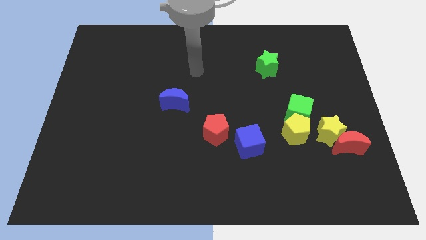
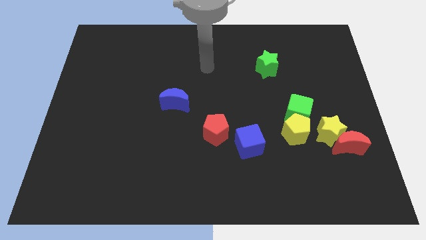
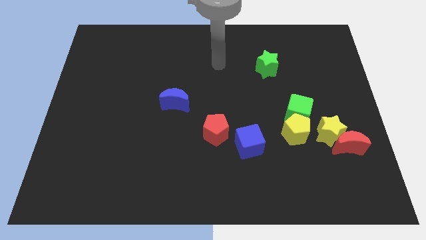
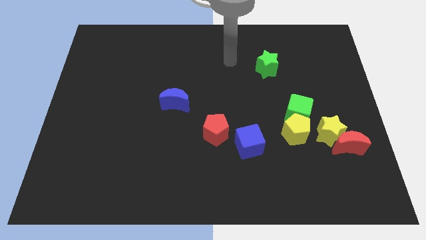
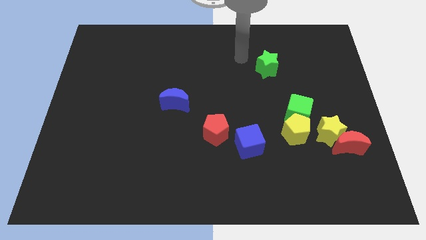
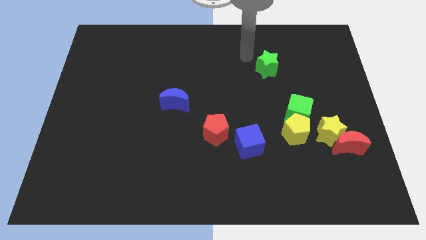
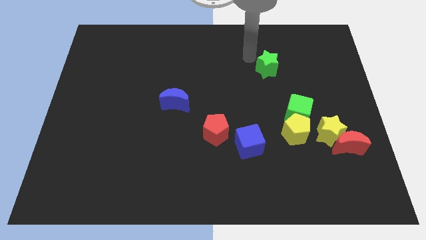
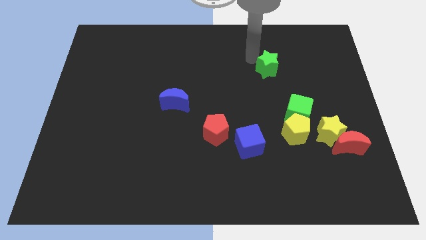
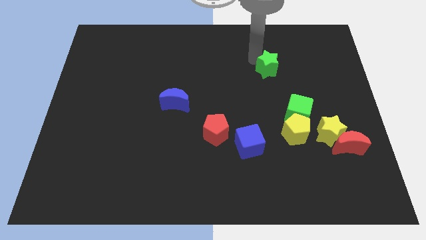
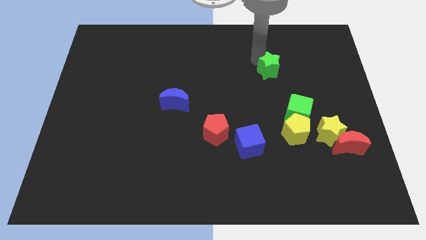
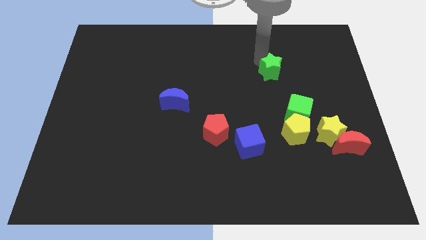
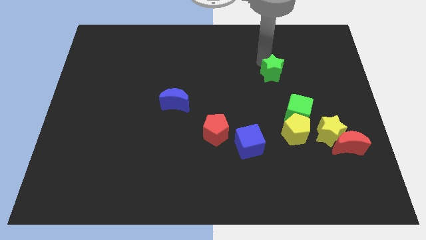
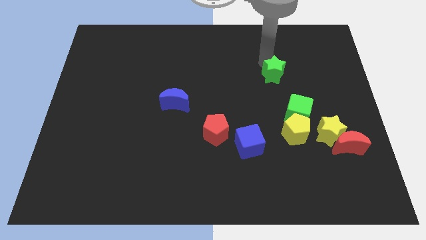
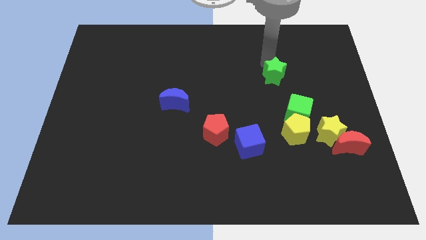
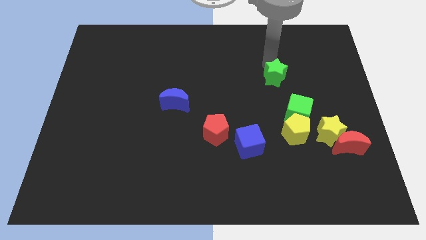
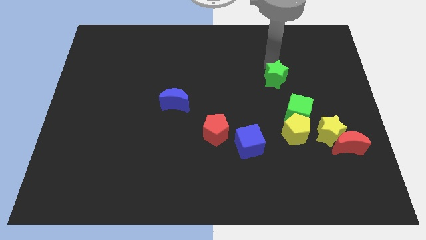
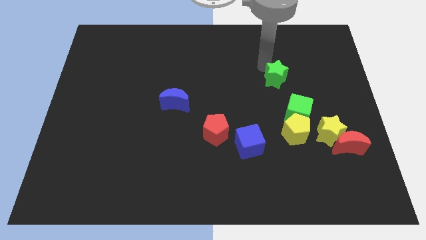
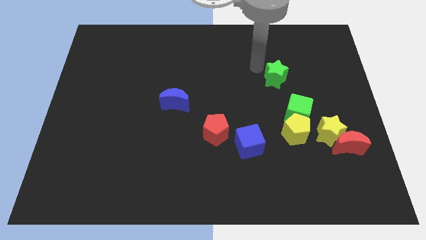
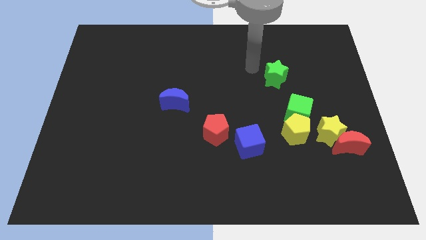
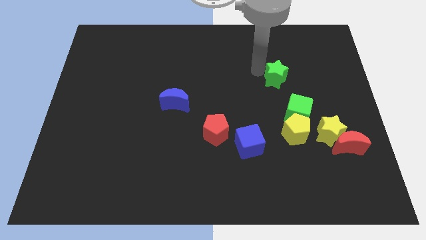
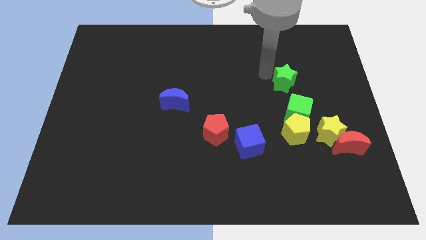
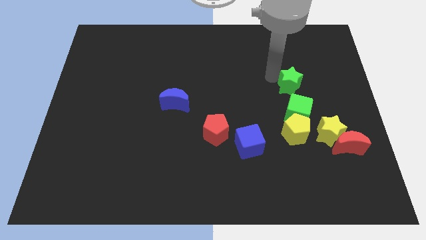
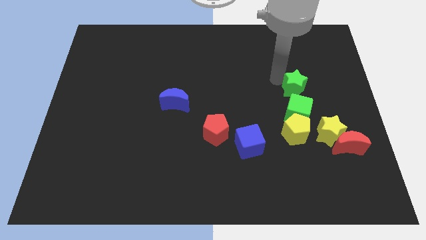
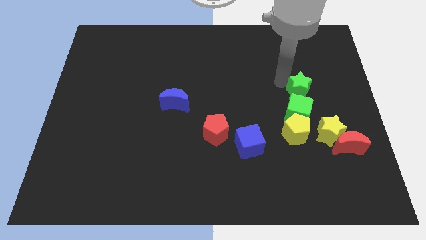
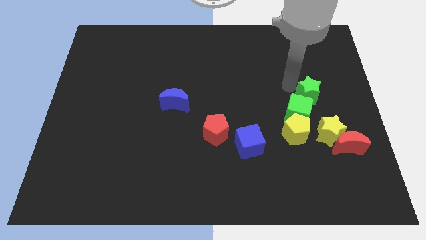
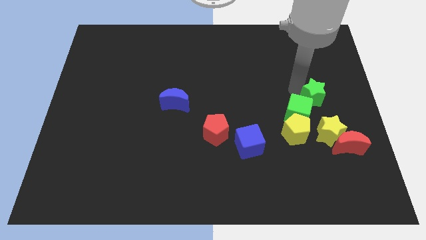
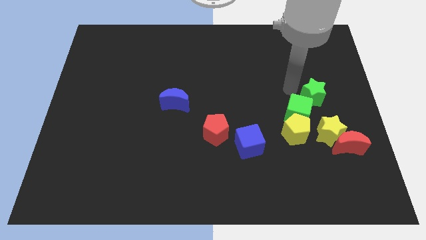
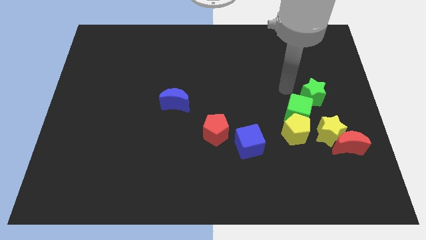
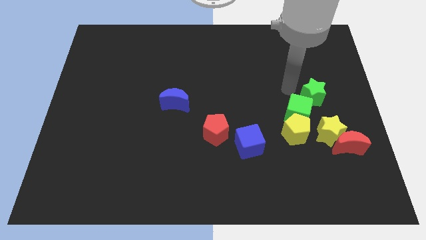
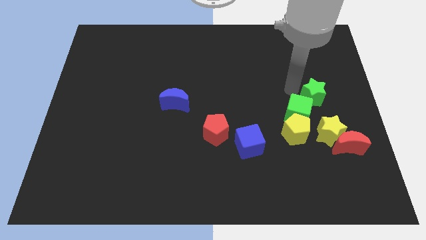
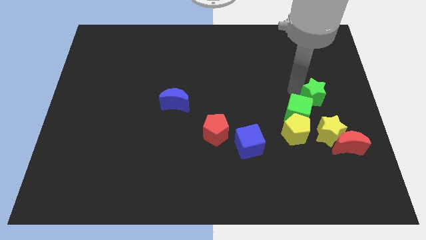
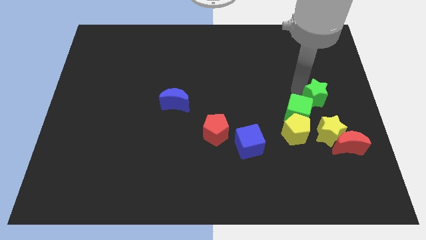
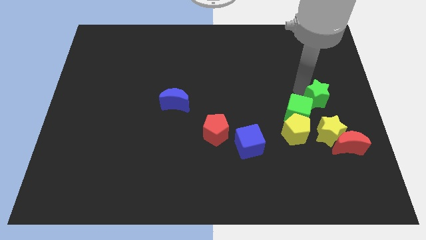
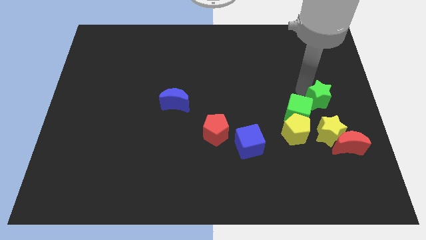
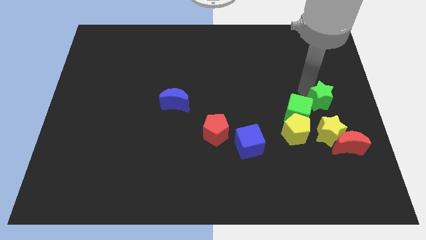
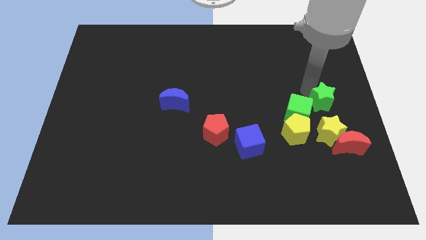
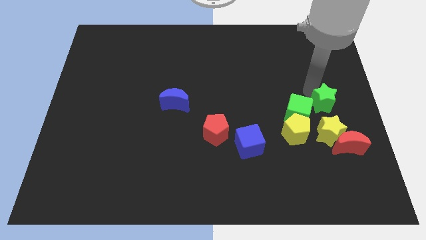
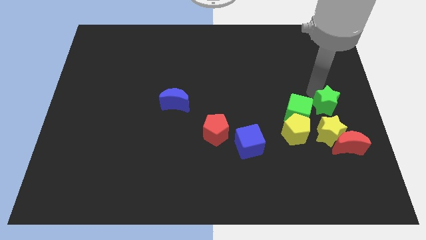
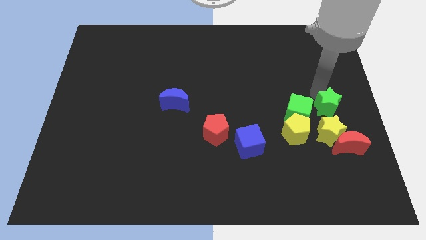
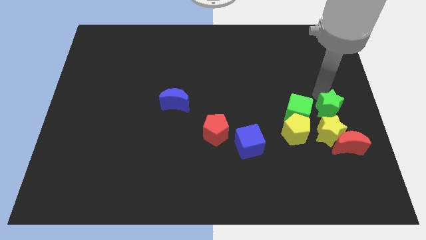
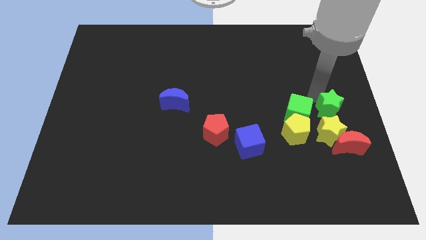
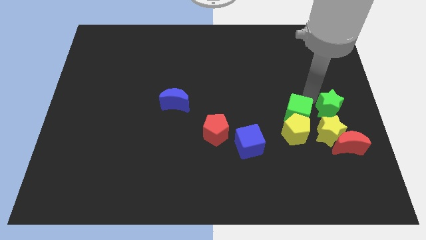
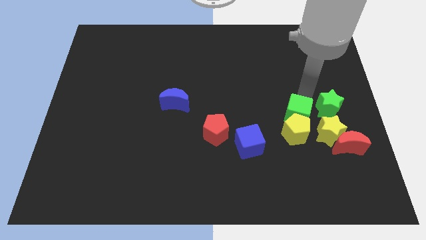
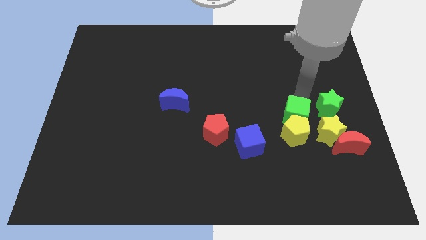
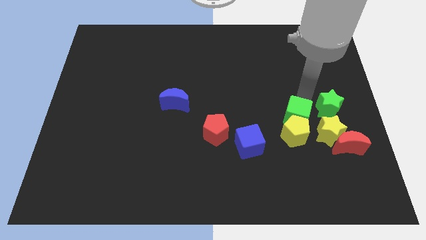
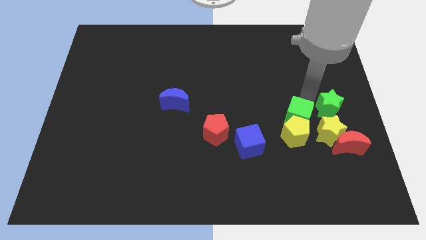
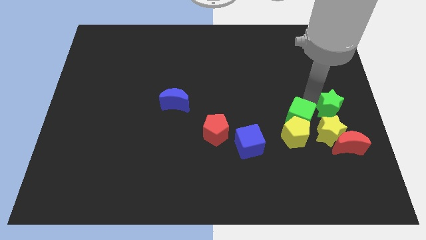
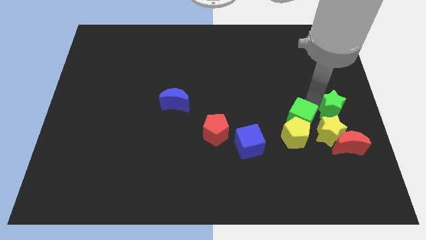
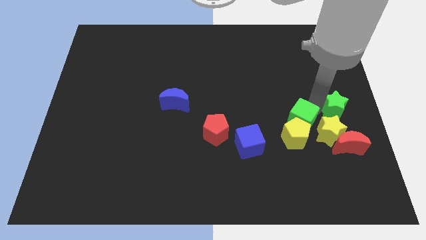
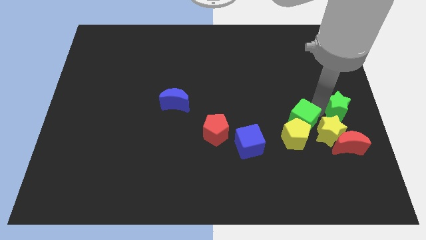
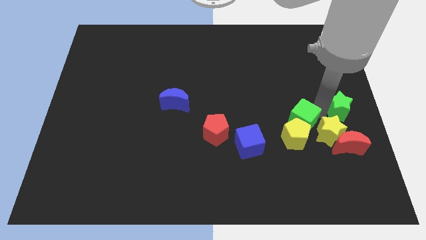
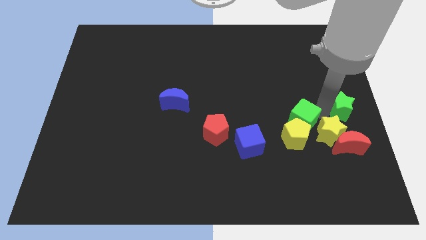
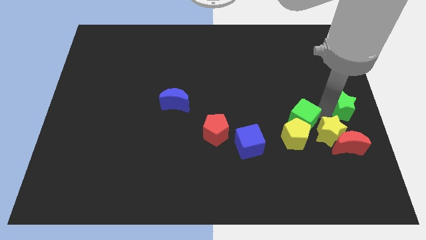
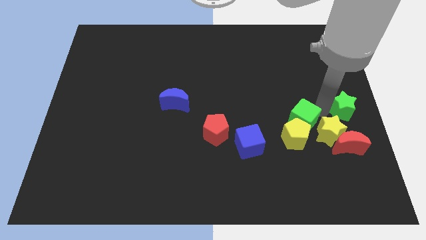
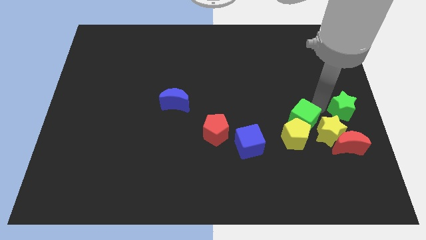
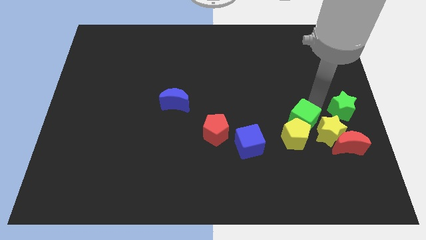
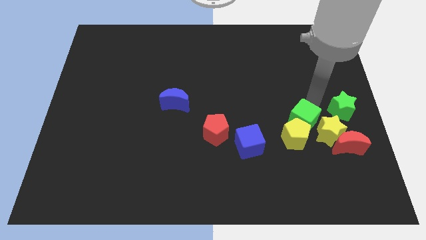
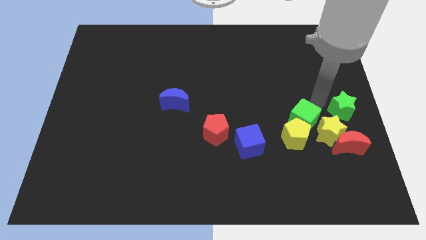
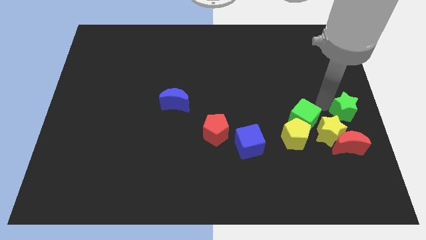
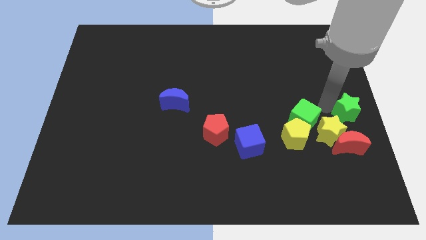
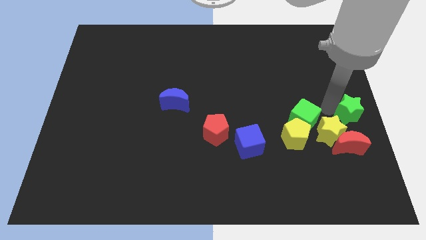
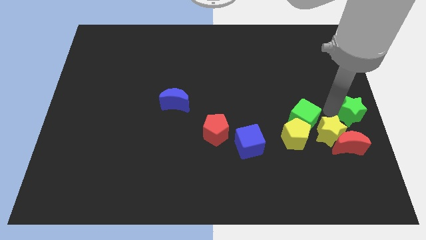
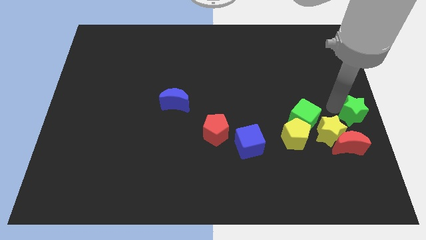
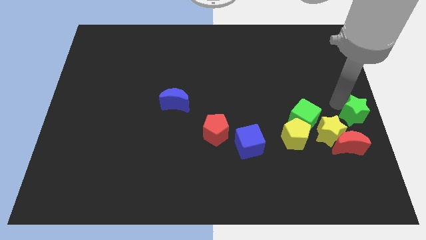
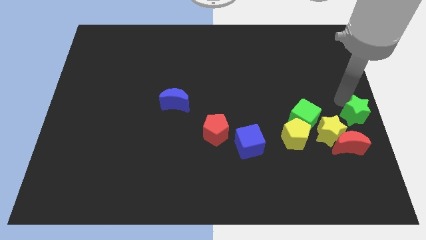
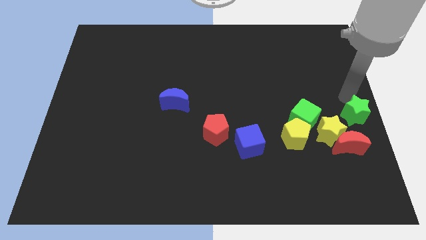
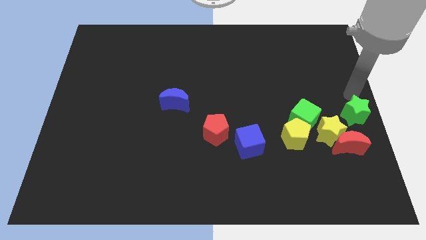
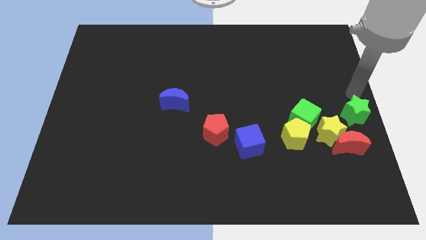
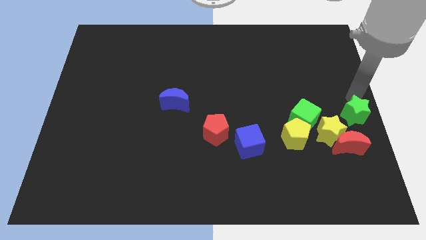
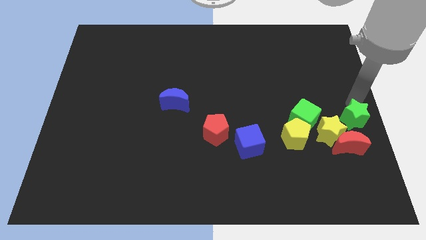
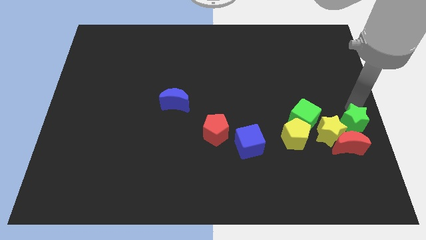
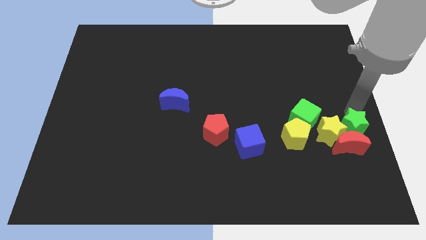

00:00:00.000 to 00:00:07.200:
push the green star next to the red moon

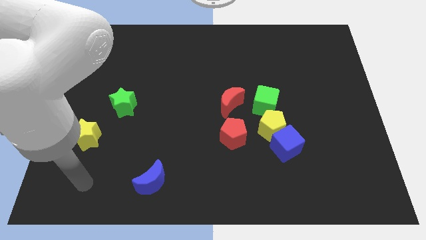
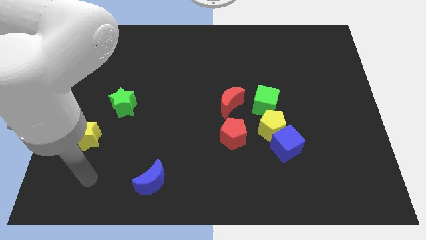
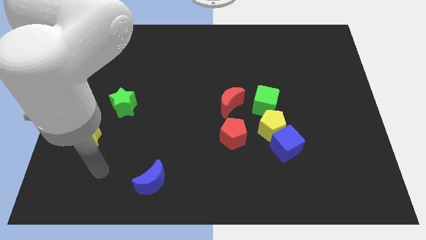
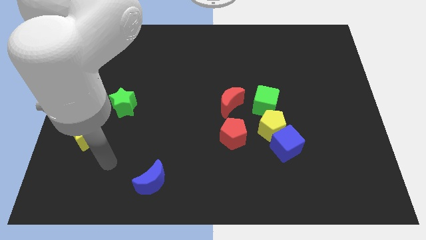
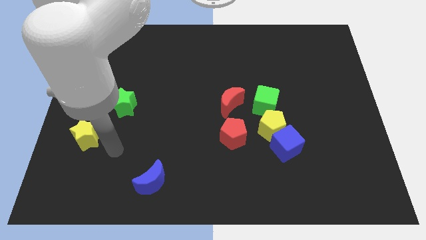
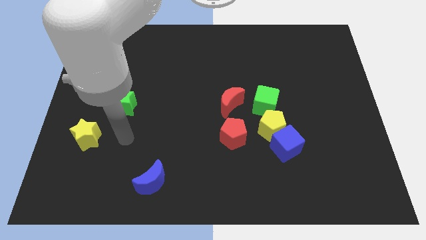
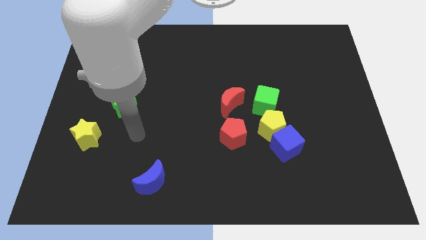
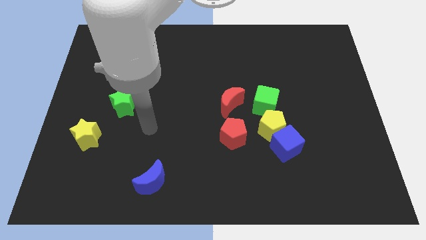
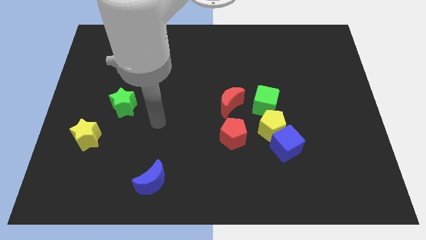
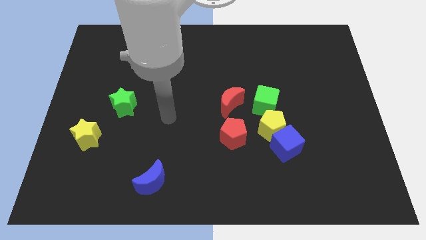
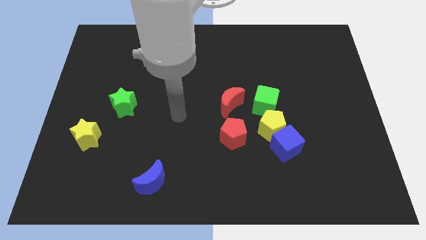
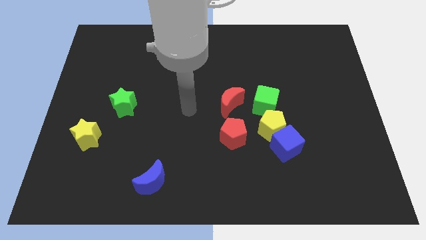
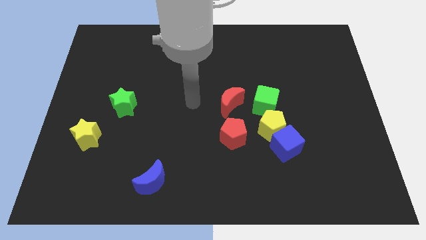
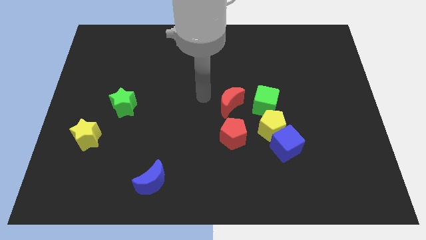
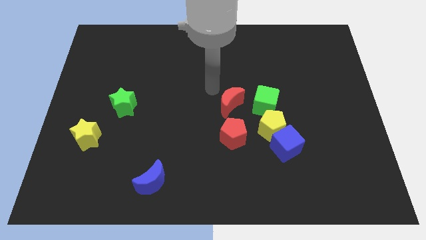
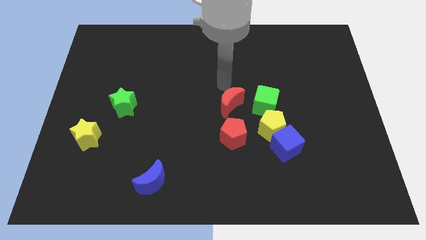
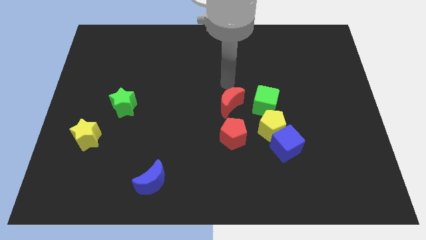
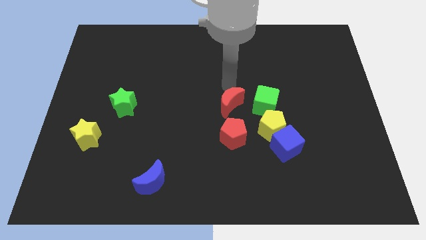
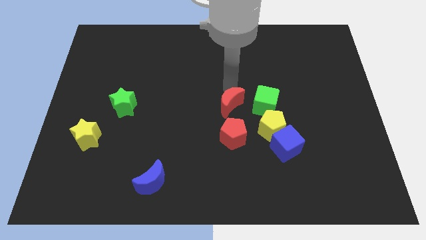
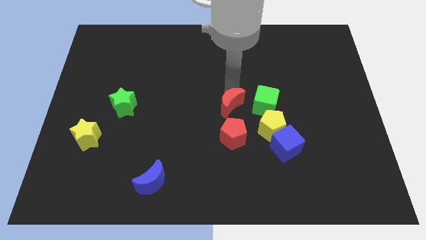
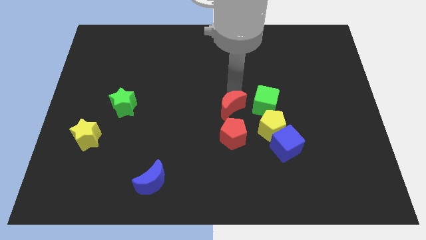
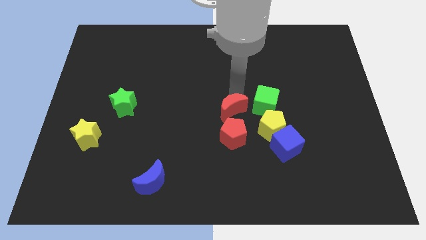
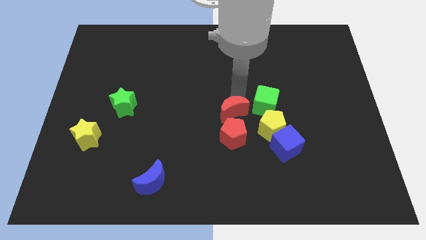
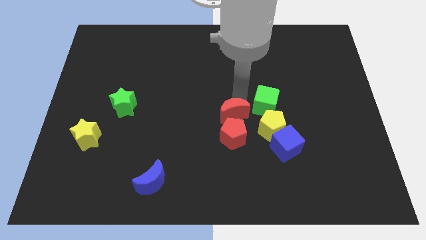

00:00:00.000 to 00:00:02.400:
put the red moon close to the red pentagon
